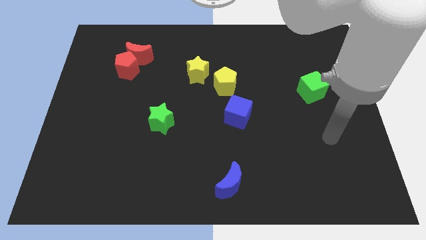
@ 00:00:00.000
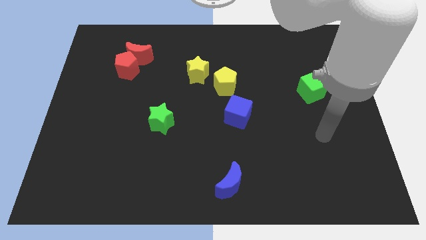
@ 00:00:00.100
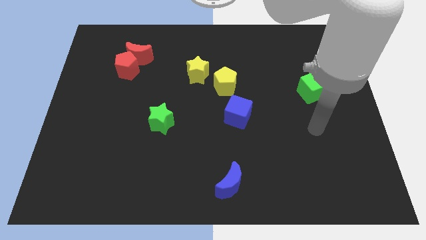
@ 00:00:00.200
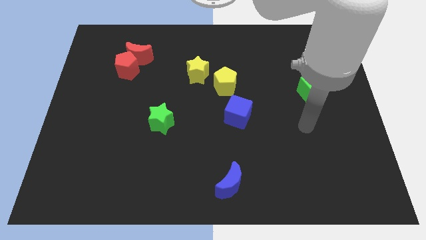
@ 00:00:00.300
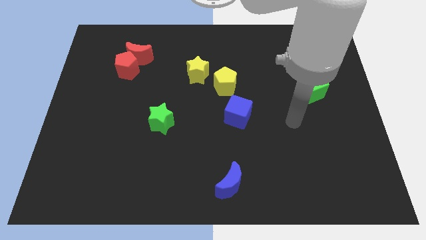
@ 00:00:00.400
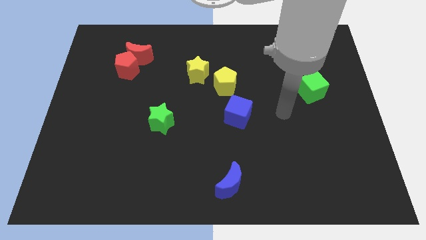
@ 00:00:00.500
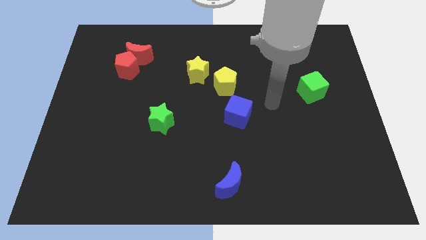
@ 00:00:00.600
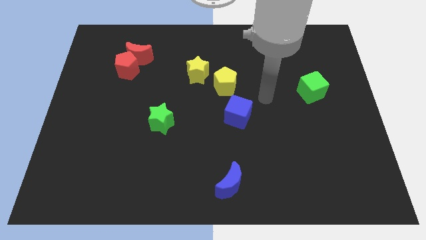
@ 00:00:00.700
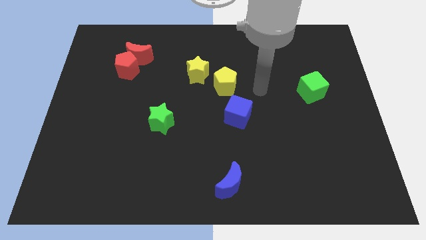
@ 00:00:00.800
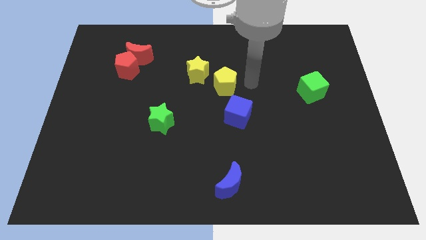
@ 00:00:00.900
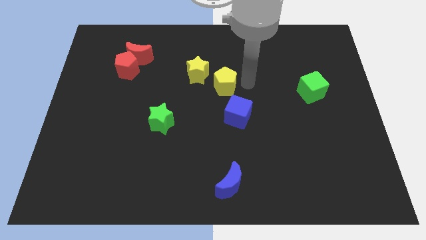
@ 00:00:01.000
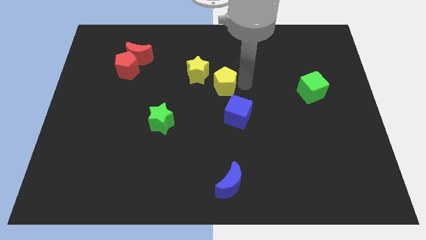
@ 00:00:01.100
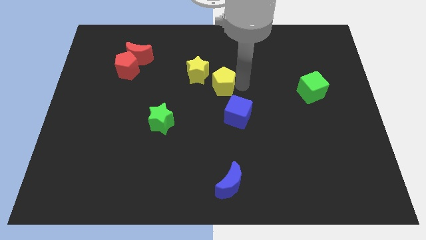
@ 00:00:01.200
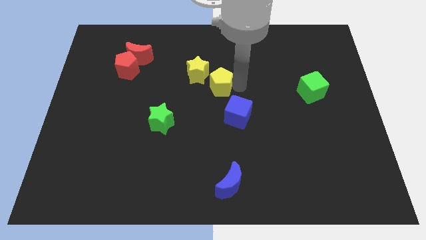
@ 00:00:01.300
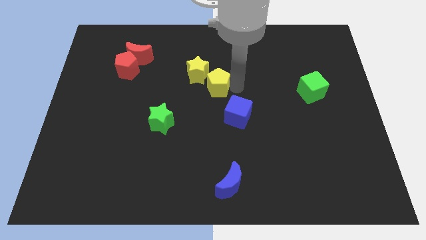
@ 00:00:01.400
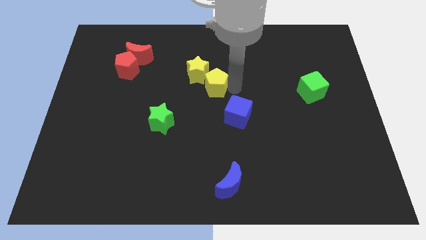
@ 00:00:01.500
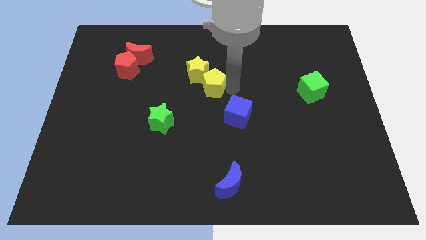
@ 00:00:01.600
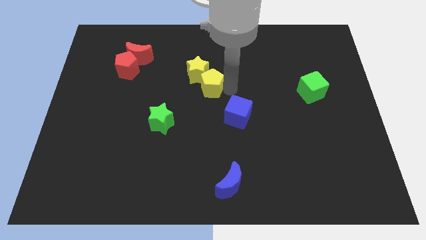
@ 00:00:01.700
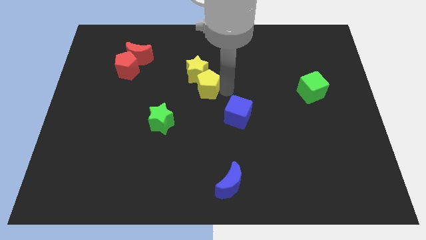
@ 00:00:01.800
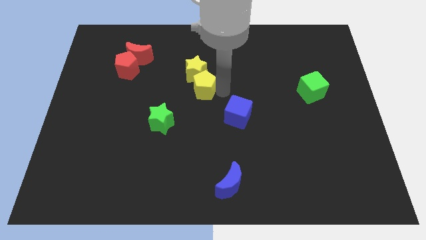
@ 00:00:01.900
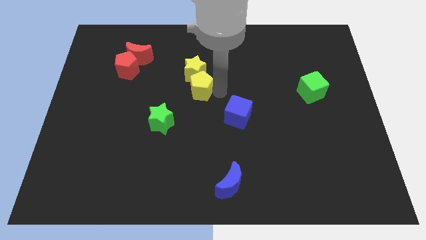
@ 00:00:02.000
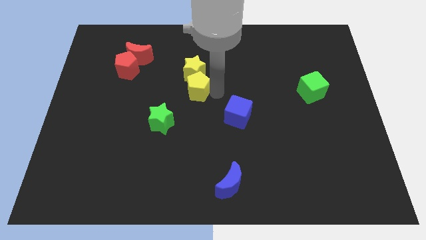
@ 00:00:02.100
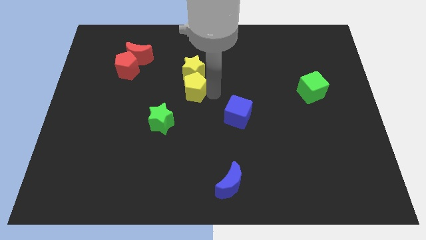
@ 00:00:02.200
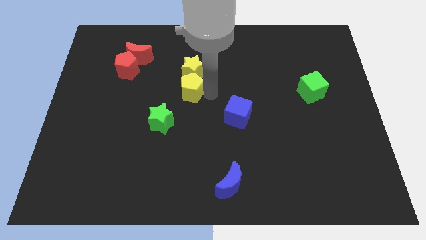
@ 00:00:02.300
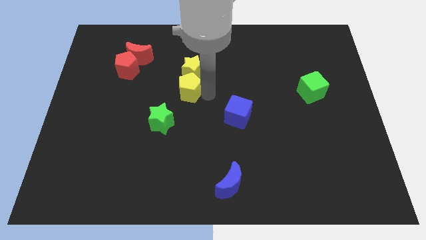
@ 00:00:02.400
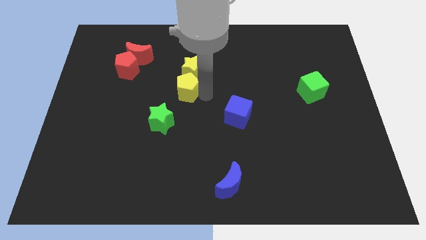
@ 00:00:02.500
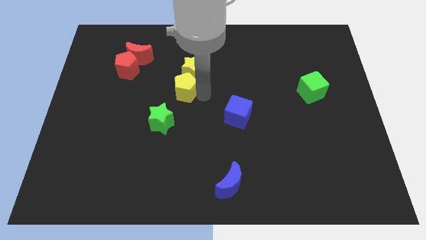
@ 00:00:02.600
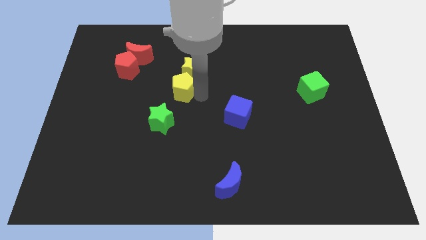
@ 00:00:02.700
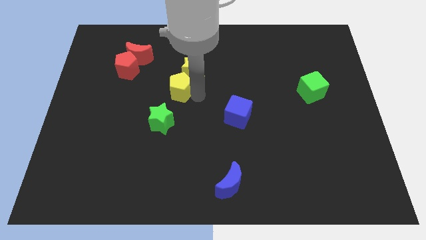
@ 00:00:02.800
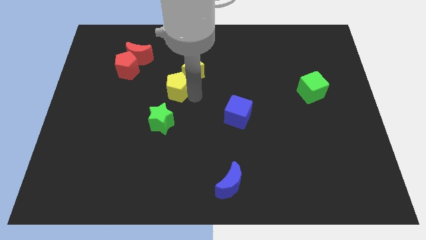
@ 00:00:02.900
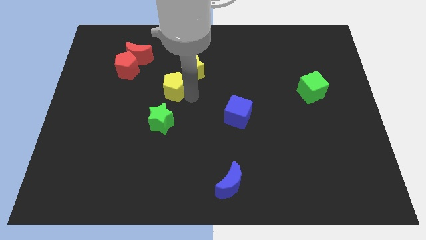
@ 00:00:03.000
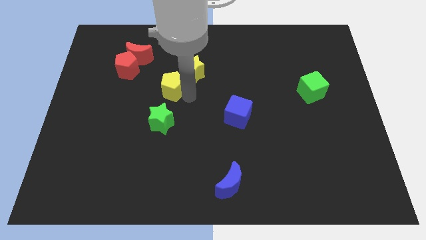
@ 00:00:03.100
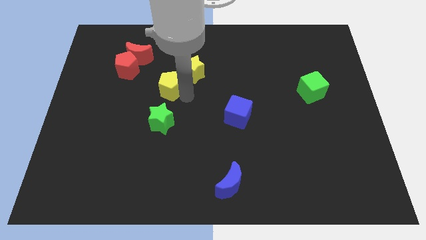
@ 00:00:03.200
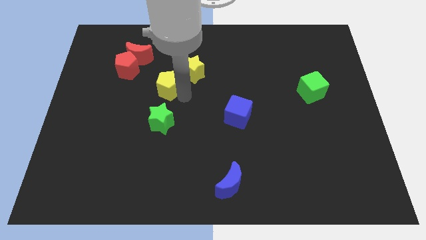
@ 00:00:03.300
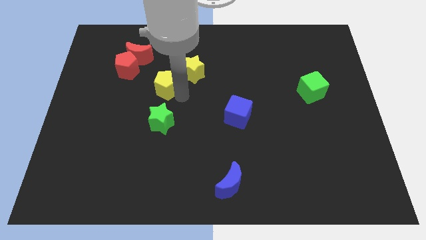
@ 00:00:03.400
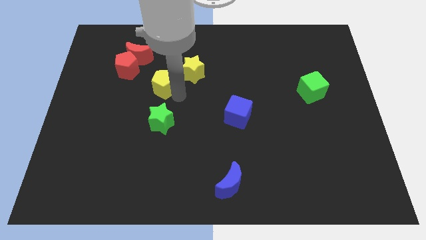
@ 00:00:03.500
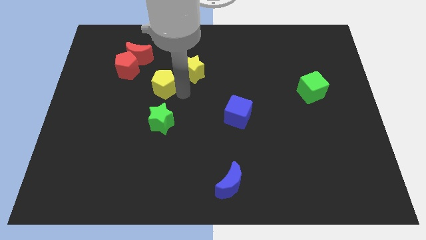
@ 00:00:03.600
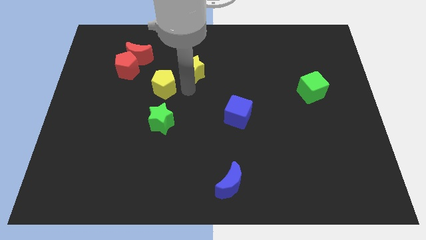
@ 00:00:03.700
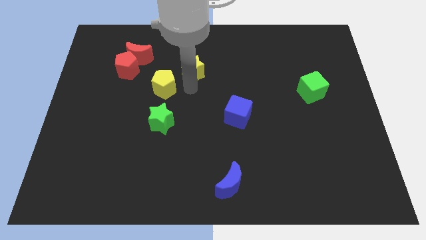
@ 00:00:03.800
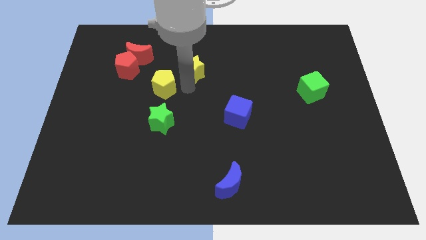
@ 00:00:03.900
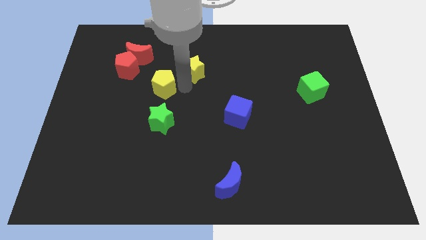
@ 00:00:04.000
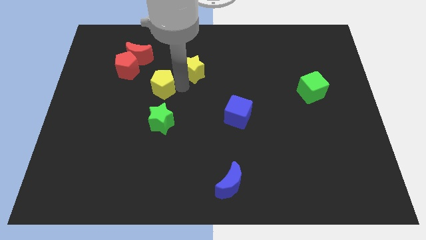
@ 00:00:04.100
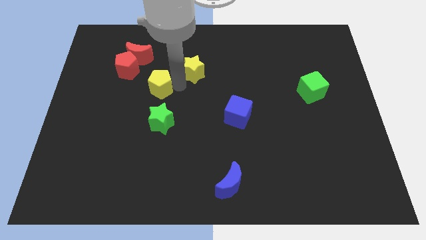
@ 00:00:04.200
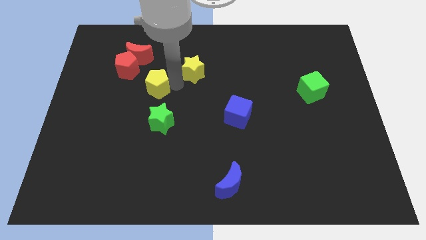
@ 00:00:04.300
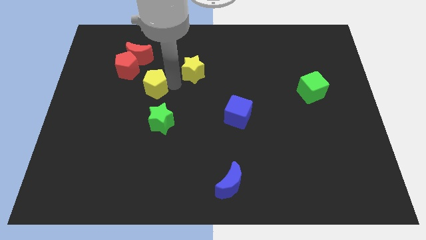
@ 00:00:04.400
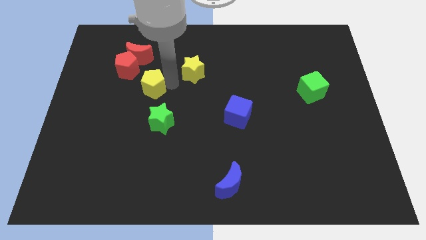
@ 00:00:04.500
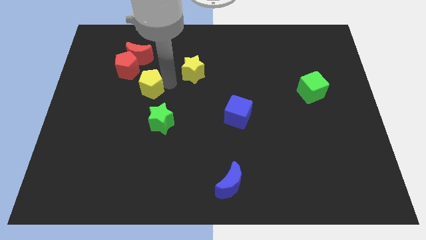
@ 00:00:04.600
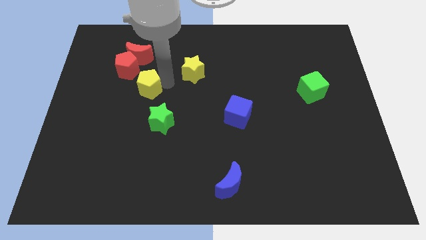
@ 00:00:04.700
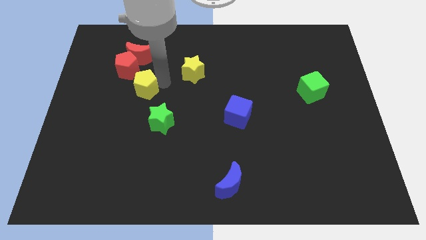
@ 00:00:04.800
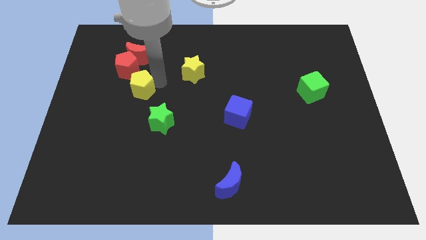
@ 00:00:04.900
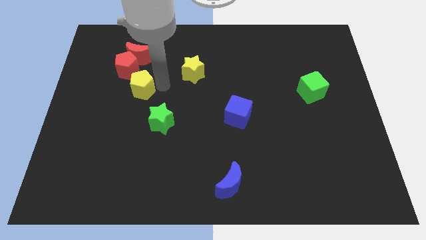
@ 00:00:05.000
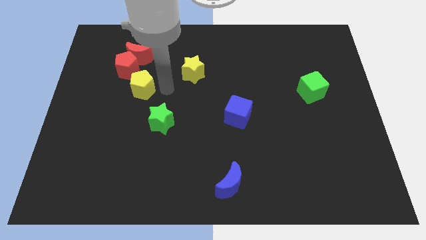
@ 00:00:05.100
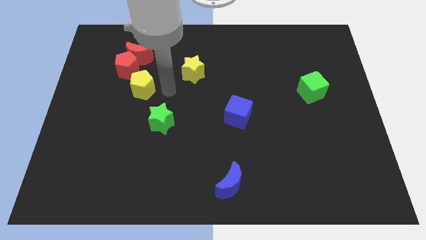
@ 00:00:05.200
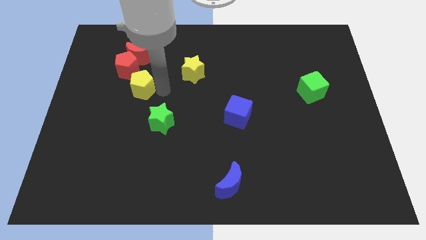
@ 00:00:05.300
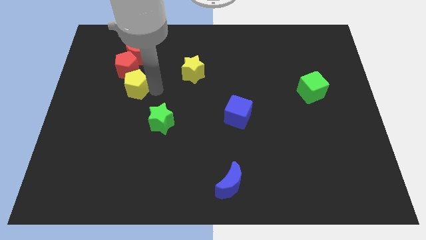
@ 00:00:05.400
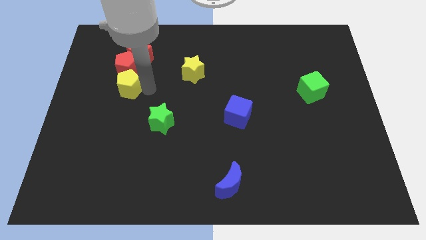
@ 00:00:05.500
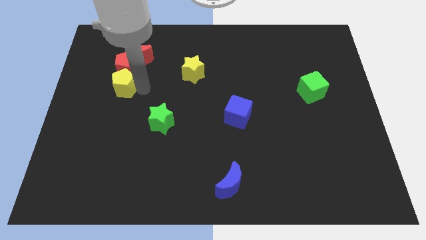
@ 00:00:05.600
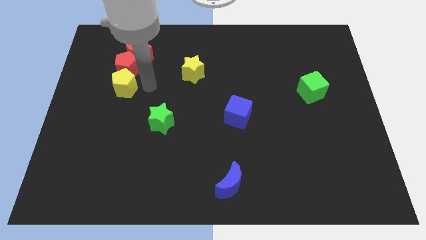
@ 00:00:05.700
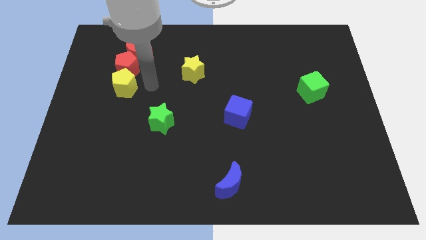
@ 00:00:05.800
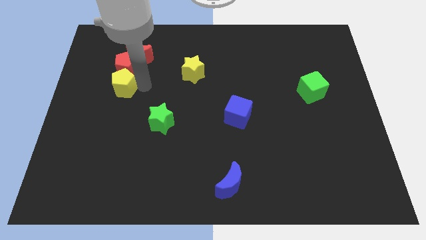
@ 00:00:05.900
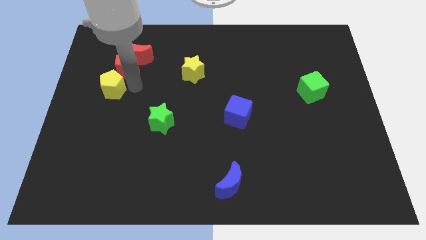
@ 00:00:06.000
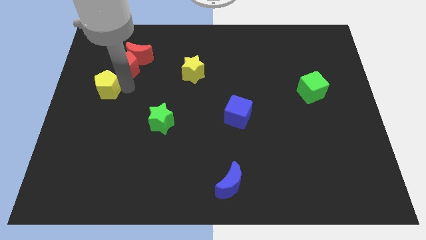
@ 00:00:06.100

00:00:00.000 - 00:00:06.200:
slide the yellow pentagon to the left side of the board

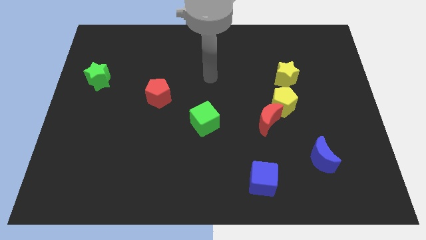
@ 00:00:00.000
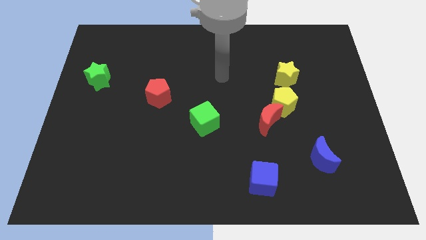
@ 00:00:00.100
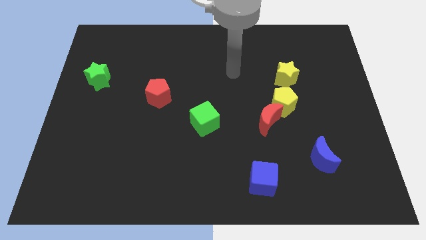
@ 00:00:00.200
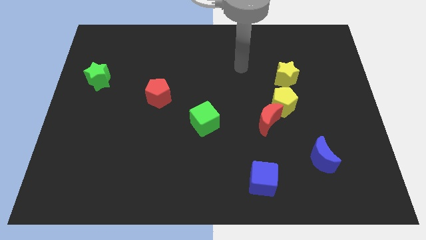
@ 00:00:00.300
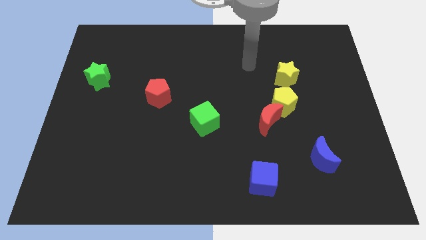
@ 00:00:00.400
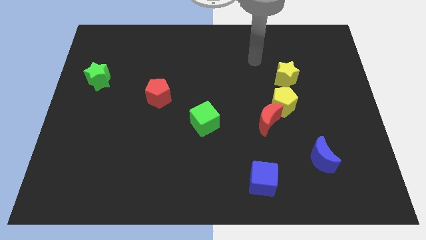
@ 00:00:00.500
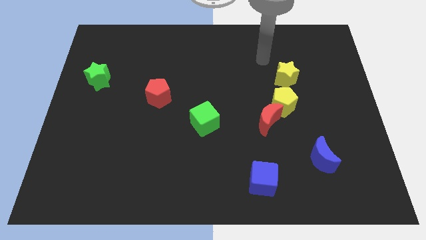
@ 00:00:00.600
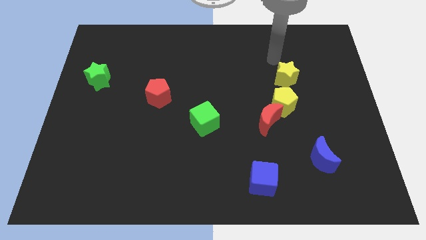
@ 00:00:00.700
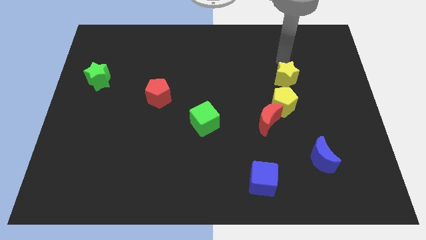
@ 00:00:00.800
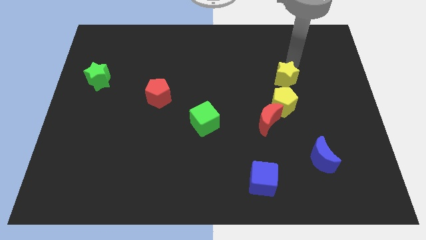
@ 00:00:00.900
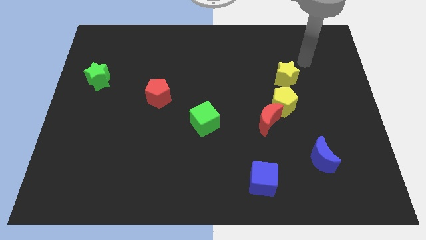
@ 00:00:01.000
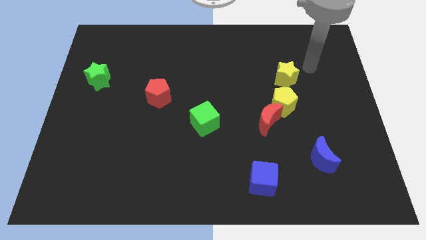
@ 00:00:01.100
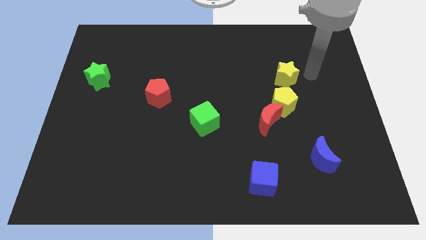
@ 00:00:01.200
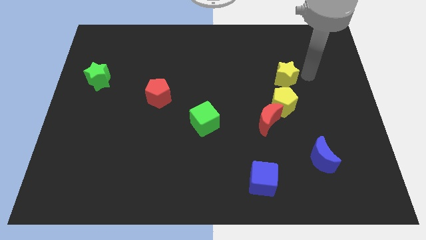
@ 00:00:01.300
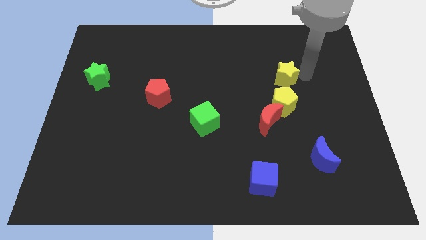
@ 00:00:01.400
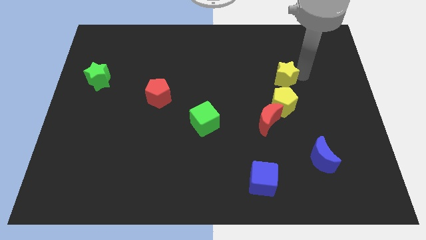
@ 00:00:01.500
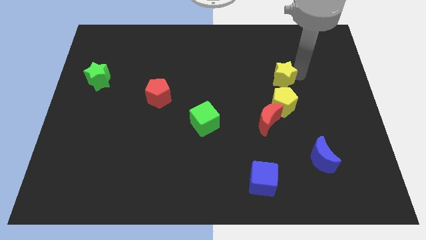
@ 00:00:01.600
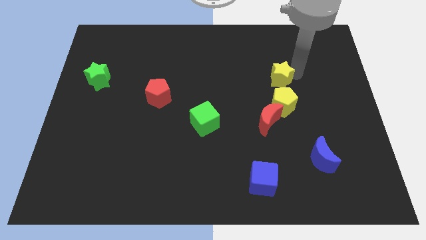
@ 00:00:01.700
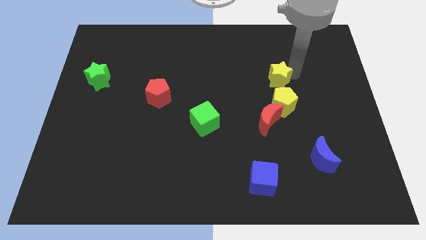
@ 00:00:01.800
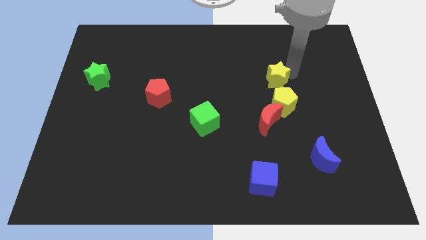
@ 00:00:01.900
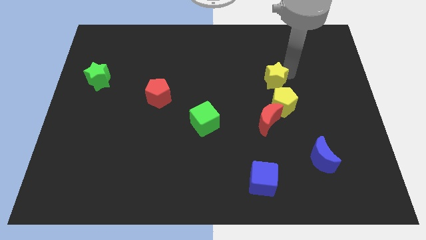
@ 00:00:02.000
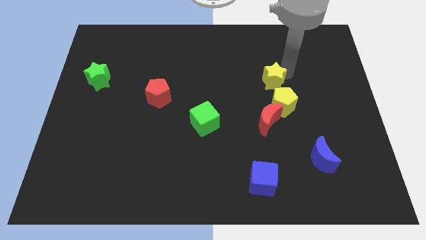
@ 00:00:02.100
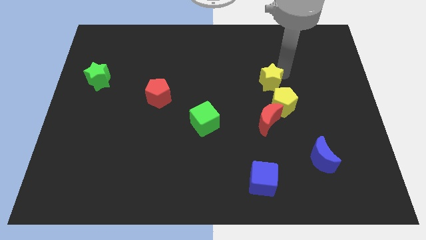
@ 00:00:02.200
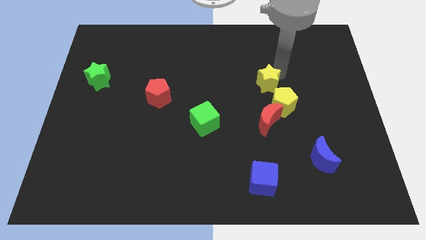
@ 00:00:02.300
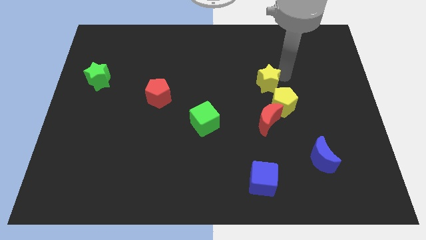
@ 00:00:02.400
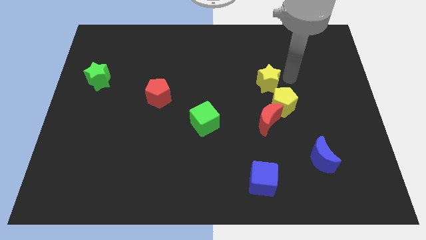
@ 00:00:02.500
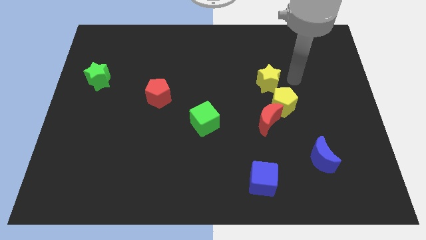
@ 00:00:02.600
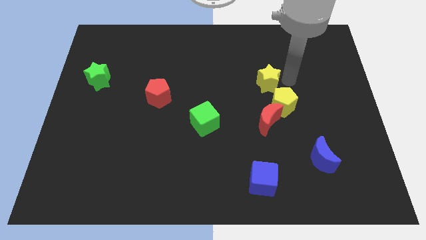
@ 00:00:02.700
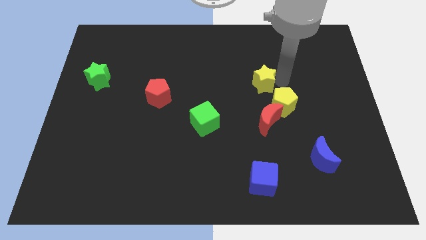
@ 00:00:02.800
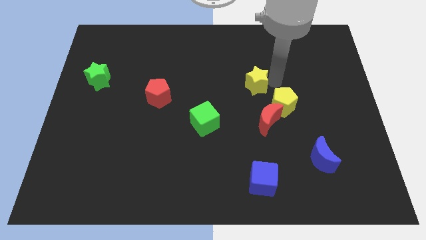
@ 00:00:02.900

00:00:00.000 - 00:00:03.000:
slide the yellow star to the middle of the board
